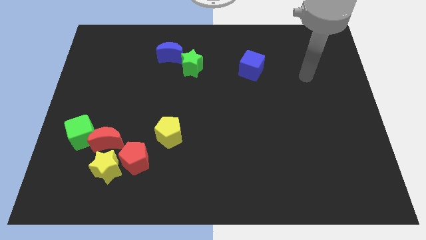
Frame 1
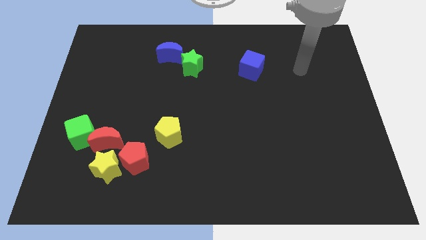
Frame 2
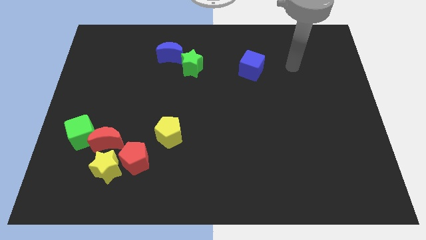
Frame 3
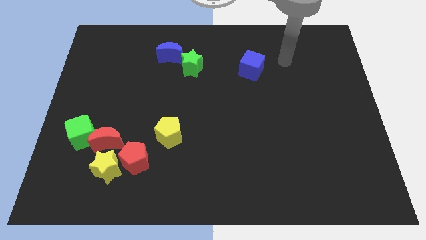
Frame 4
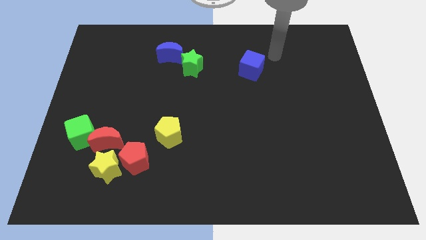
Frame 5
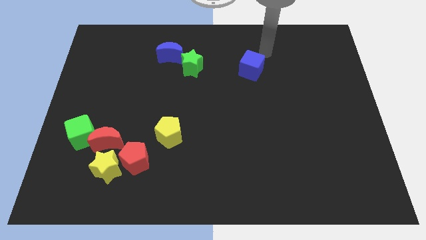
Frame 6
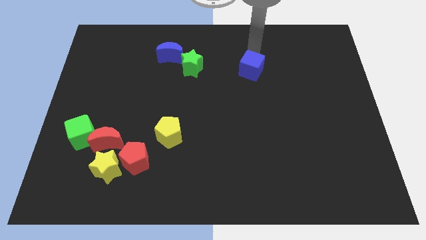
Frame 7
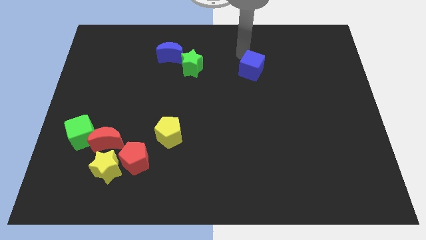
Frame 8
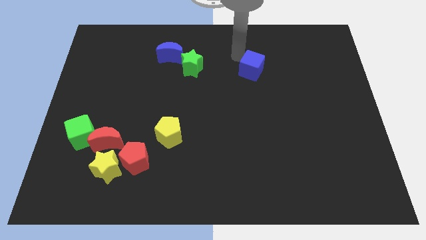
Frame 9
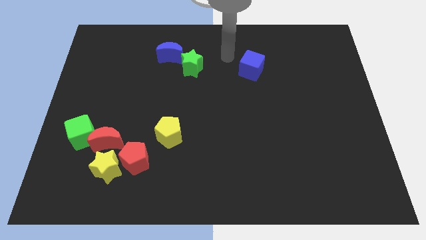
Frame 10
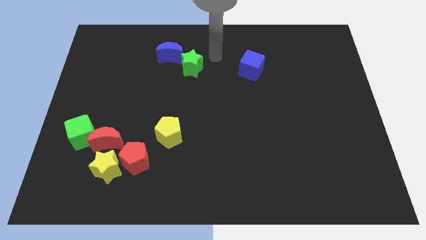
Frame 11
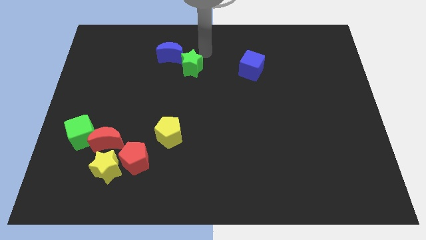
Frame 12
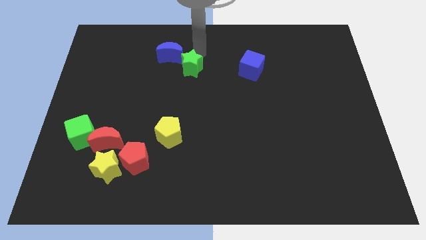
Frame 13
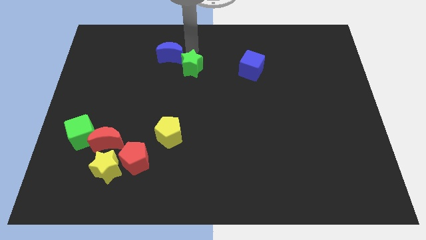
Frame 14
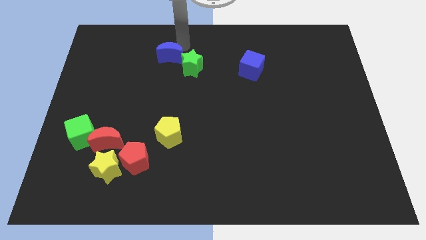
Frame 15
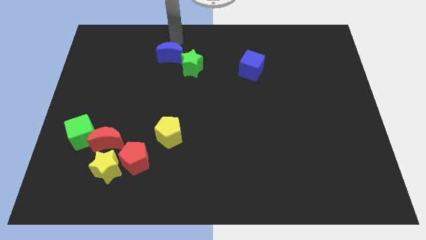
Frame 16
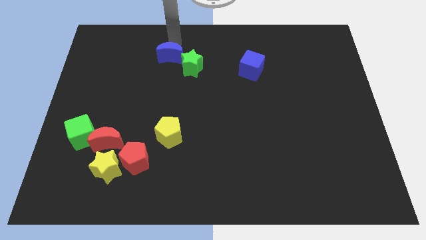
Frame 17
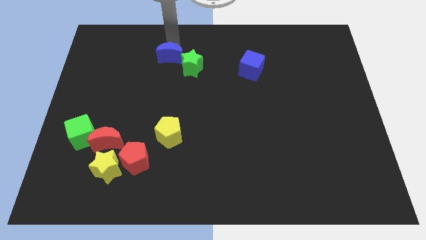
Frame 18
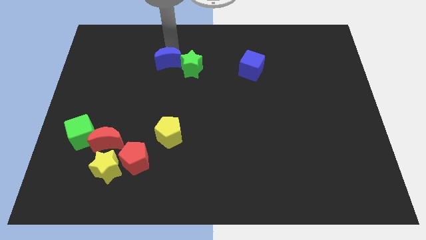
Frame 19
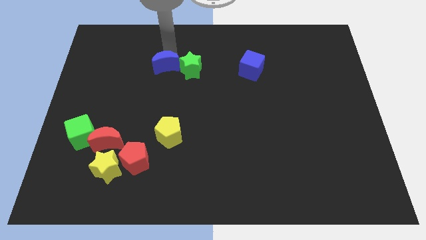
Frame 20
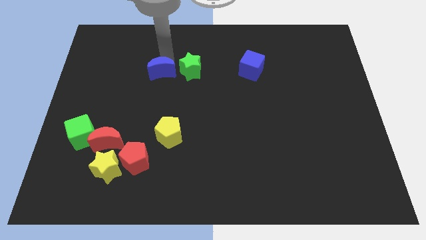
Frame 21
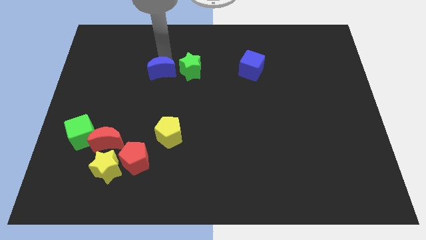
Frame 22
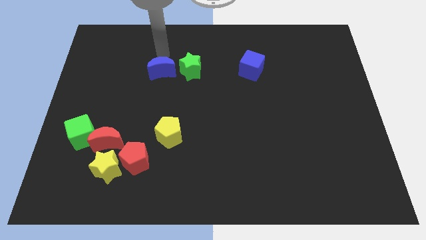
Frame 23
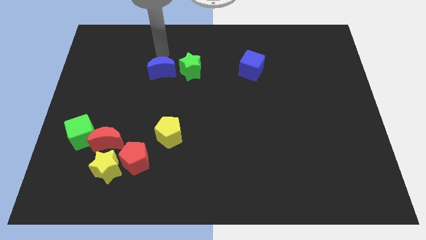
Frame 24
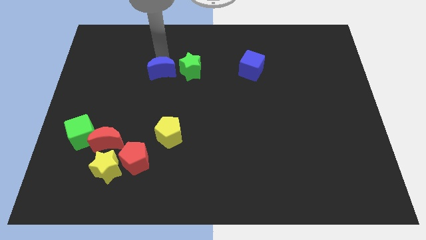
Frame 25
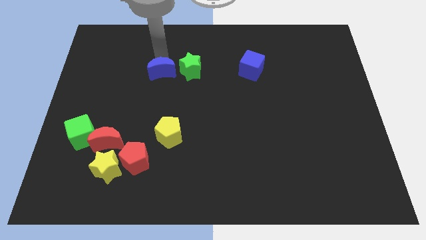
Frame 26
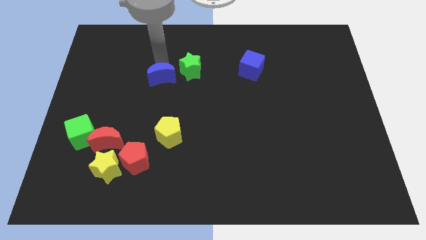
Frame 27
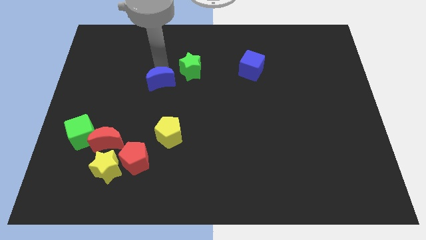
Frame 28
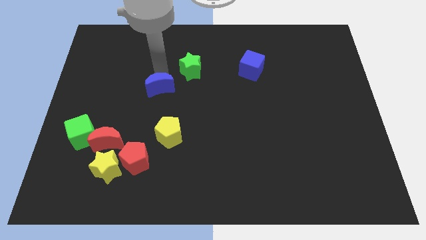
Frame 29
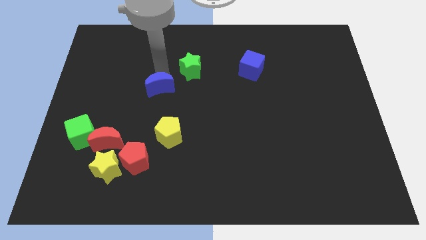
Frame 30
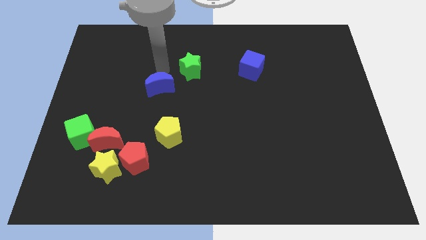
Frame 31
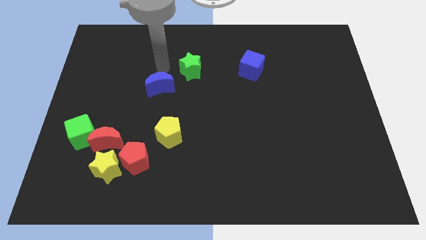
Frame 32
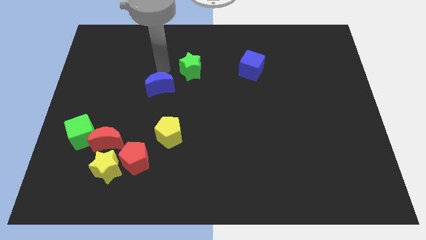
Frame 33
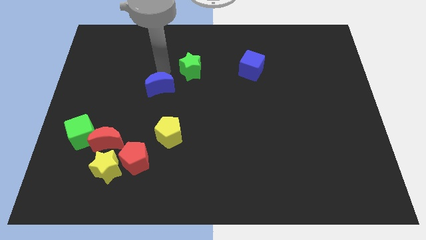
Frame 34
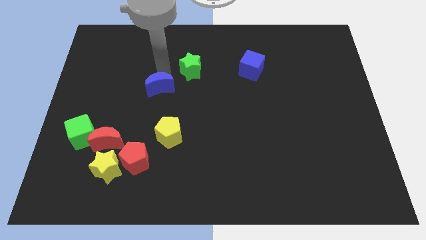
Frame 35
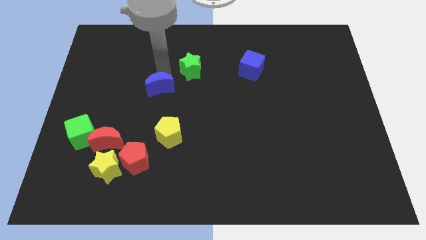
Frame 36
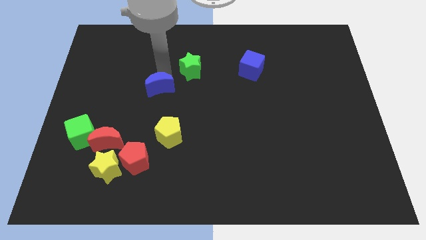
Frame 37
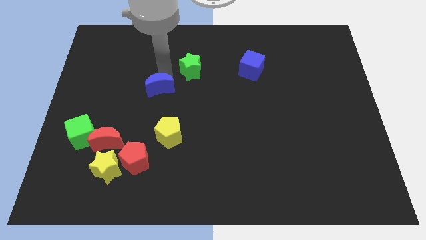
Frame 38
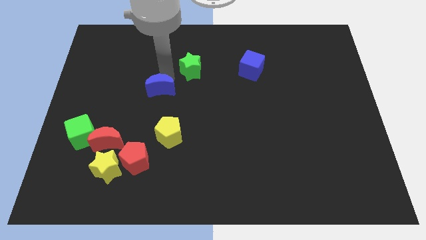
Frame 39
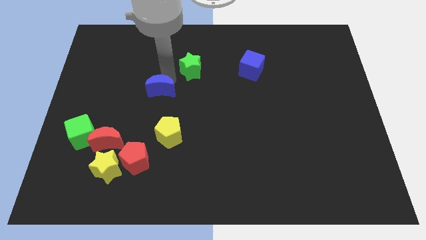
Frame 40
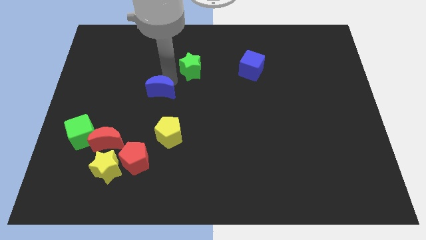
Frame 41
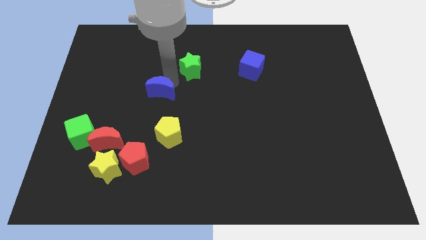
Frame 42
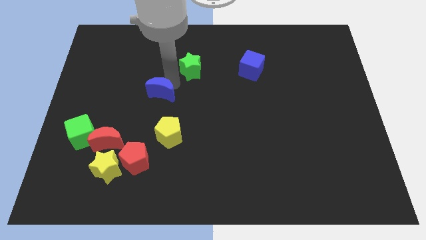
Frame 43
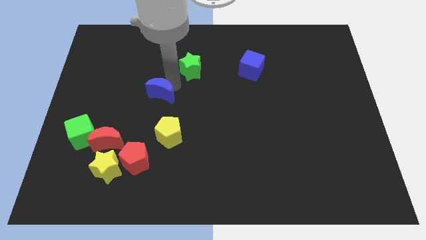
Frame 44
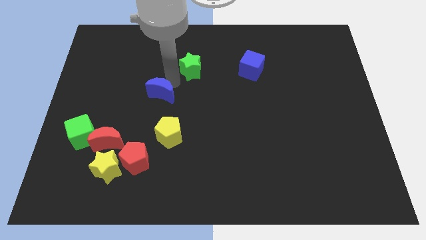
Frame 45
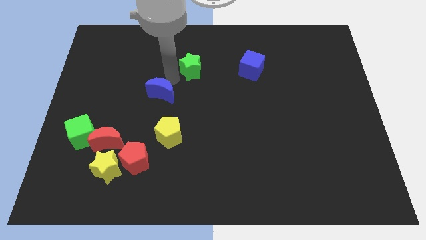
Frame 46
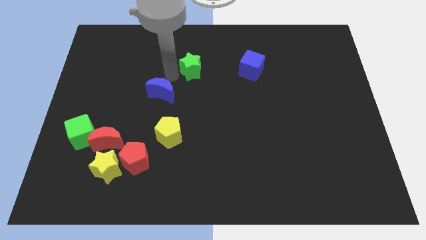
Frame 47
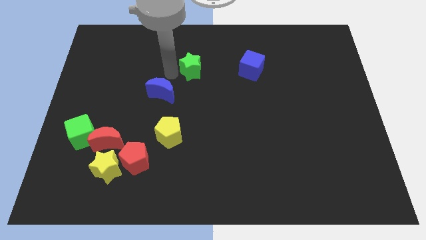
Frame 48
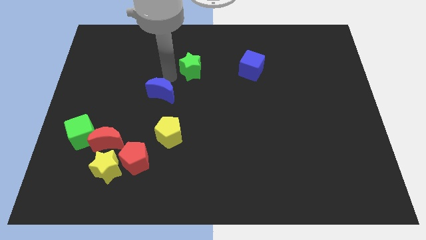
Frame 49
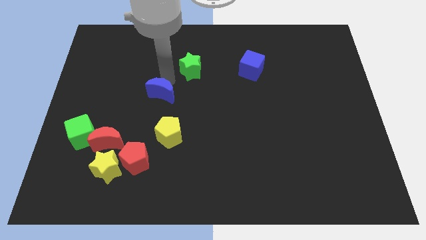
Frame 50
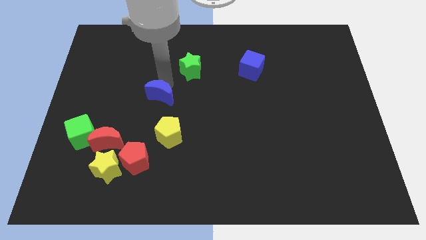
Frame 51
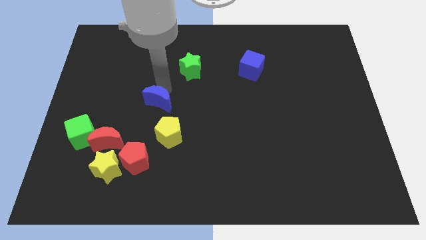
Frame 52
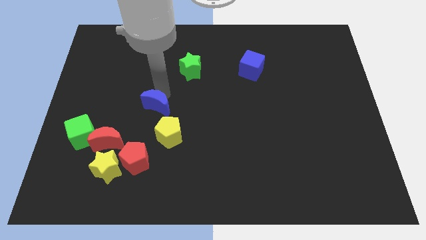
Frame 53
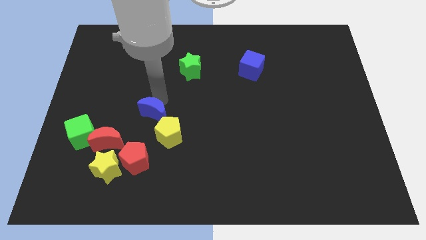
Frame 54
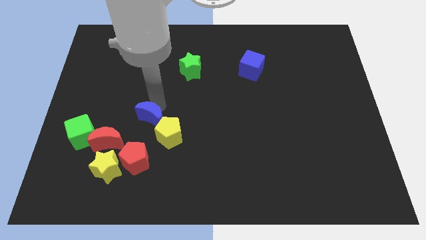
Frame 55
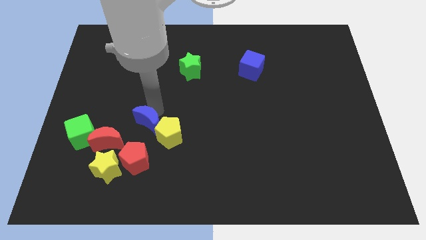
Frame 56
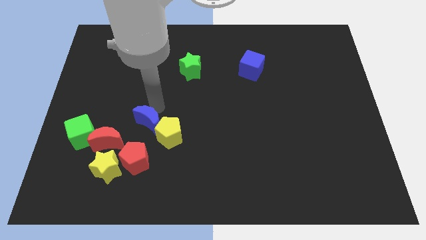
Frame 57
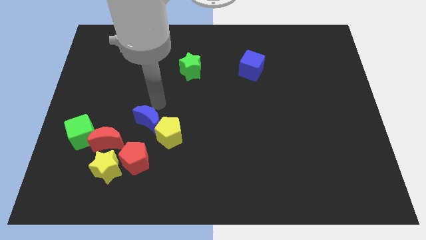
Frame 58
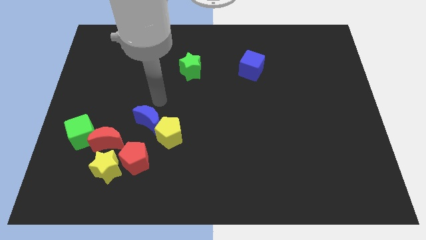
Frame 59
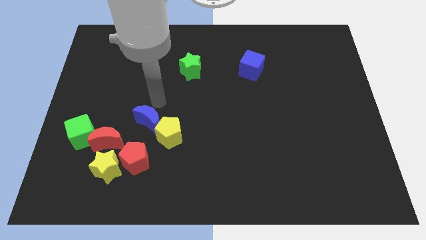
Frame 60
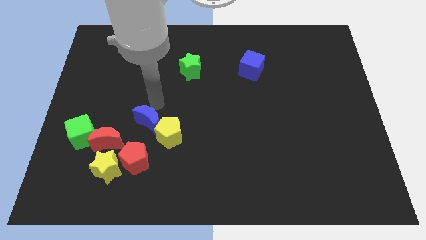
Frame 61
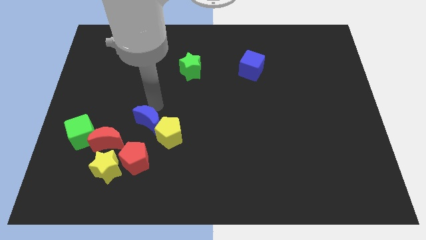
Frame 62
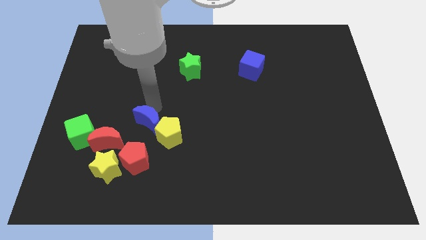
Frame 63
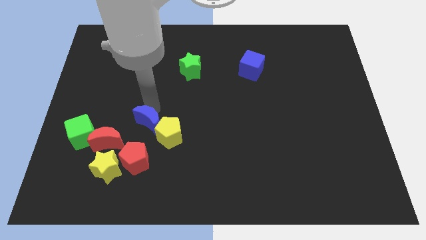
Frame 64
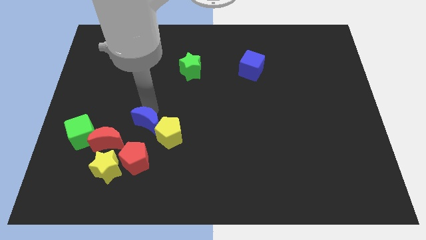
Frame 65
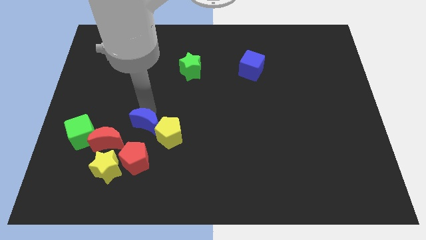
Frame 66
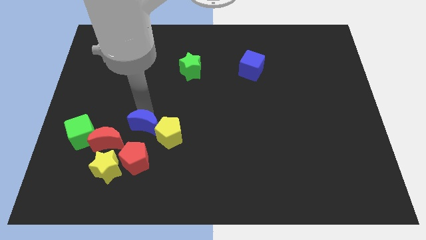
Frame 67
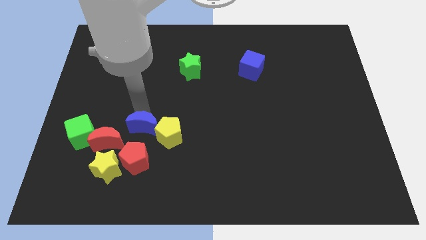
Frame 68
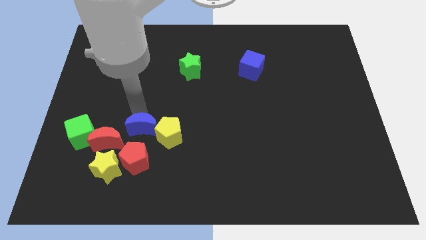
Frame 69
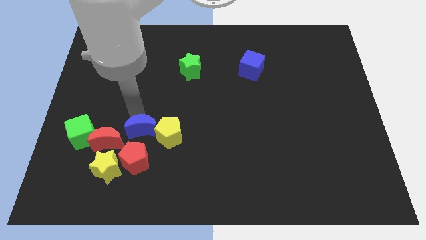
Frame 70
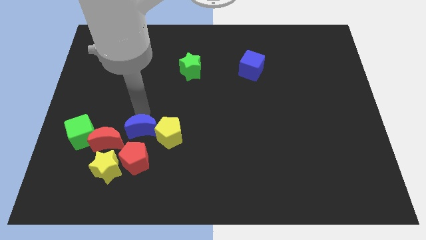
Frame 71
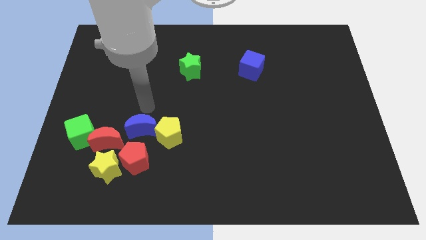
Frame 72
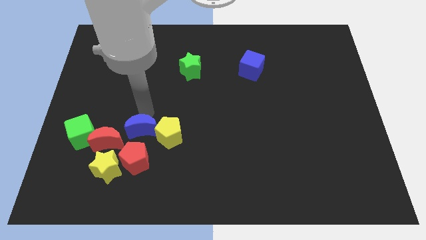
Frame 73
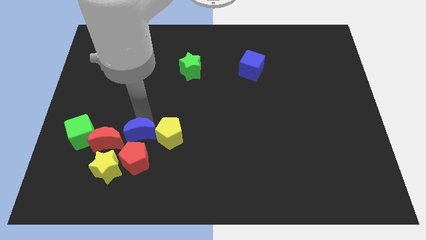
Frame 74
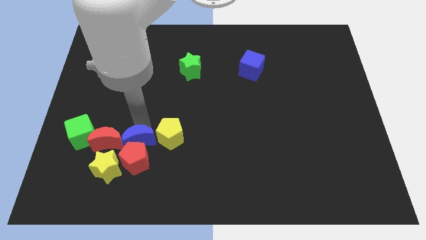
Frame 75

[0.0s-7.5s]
slide the blue moon next to the red pentagon
